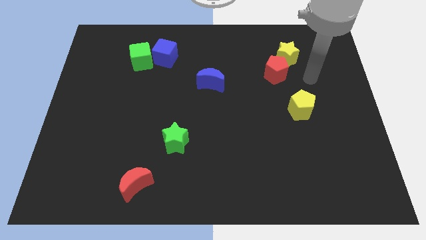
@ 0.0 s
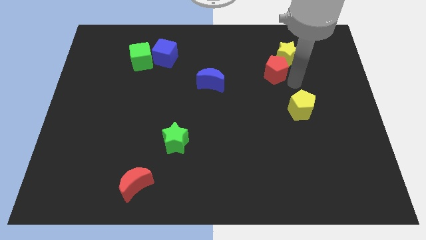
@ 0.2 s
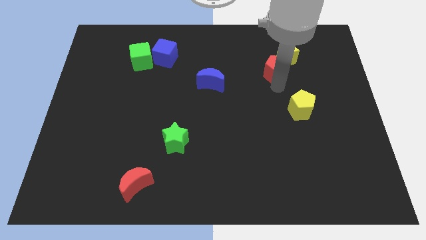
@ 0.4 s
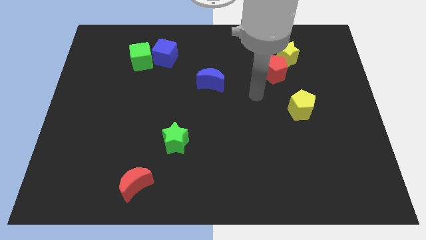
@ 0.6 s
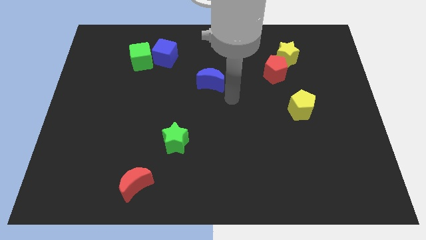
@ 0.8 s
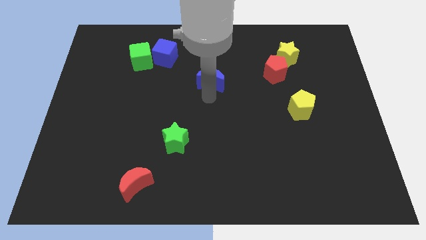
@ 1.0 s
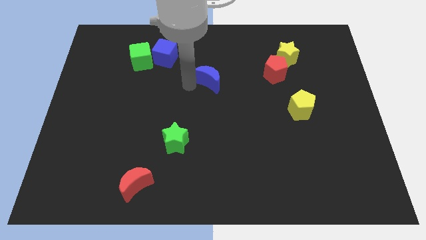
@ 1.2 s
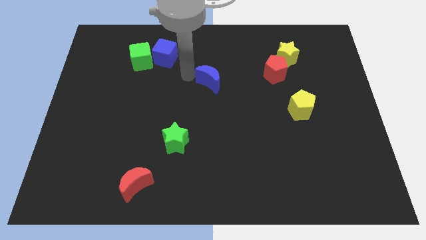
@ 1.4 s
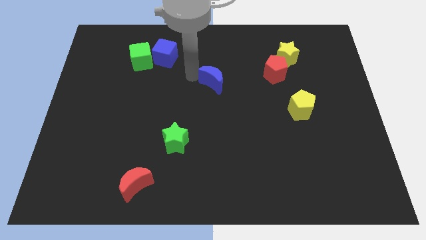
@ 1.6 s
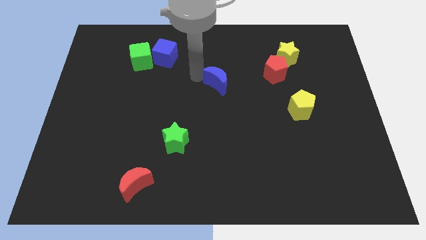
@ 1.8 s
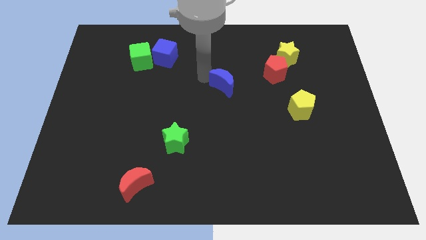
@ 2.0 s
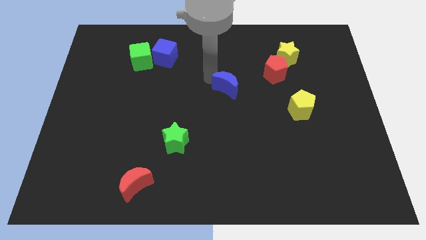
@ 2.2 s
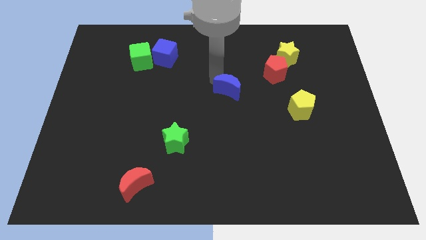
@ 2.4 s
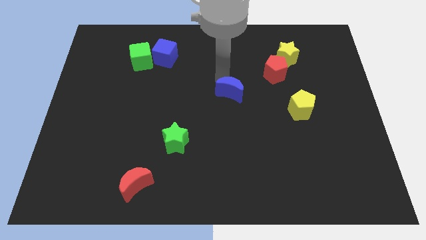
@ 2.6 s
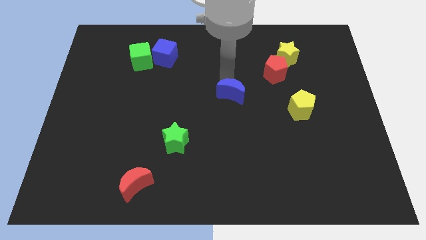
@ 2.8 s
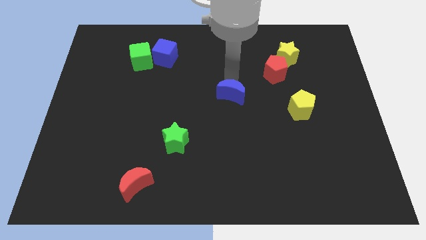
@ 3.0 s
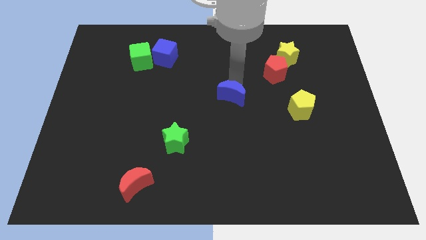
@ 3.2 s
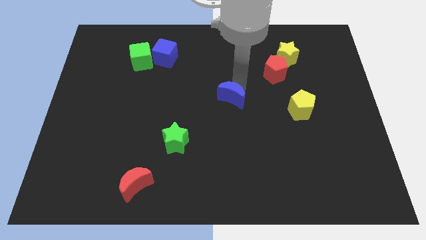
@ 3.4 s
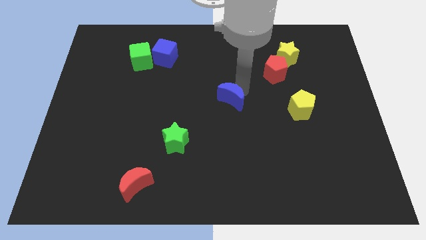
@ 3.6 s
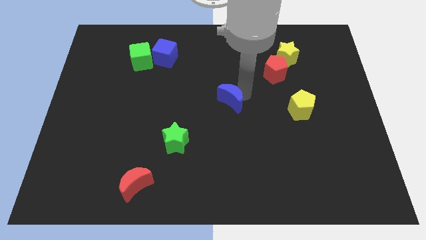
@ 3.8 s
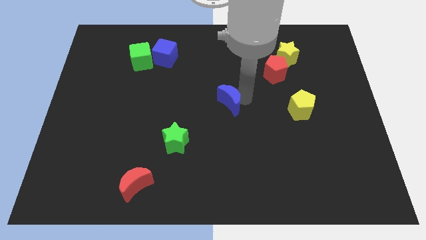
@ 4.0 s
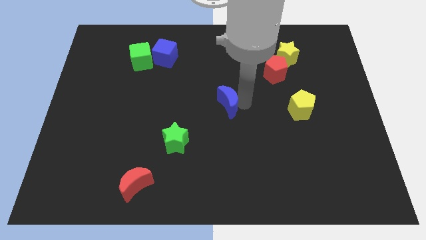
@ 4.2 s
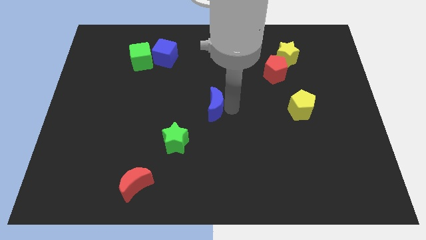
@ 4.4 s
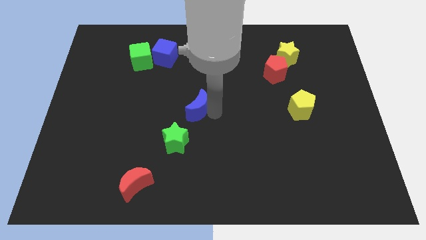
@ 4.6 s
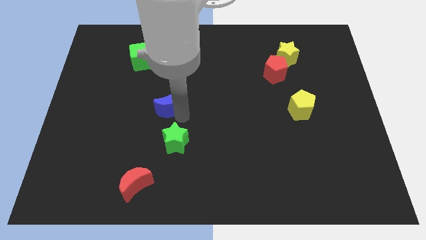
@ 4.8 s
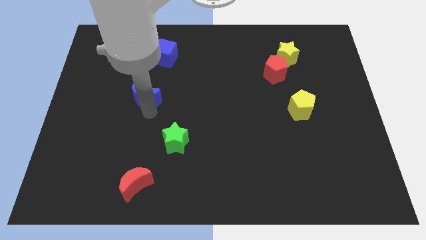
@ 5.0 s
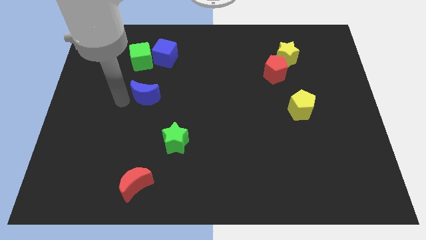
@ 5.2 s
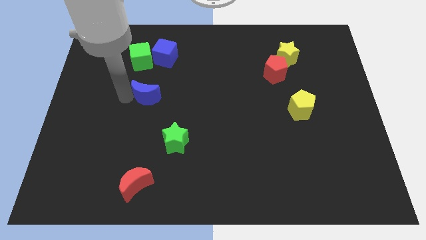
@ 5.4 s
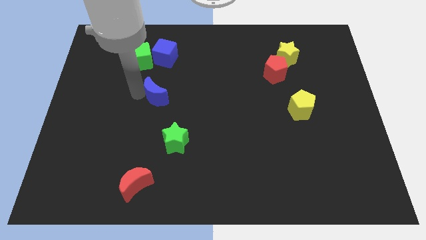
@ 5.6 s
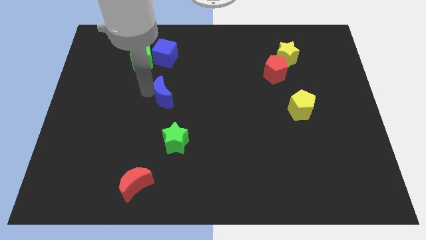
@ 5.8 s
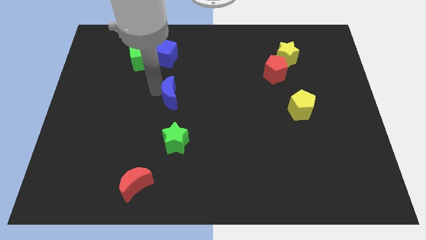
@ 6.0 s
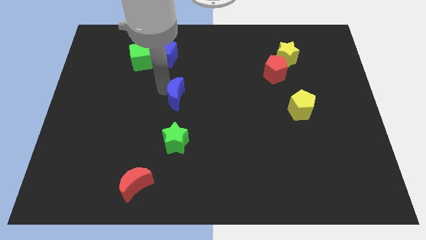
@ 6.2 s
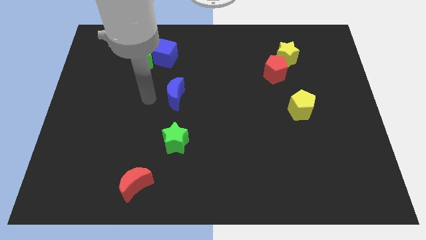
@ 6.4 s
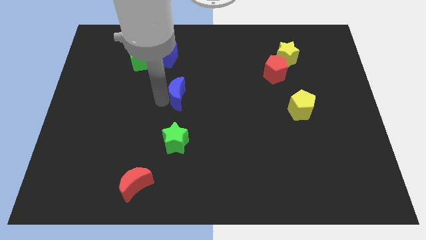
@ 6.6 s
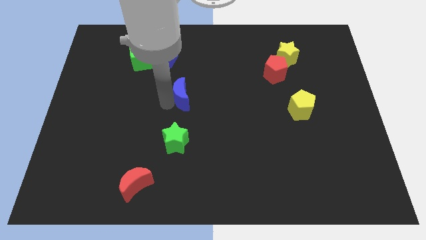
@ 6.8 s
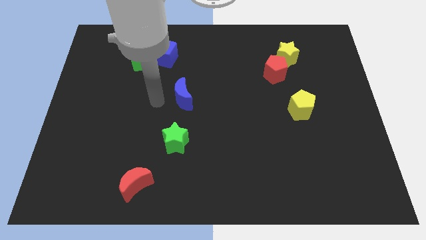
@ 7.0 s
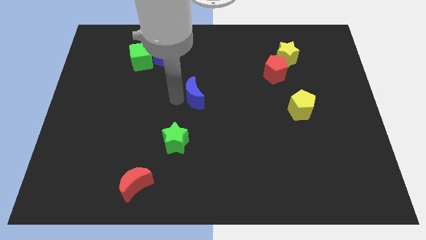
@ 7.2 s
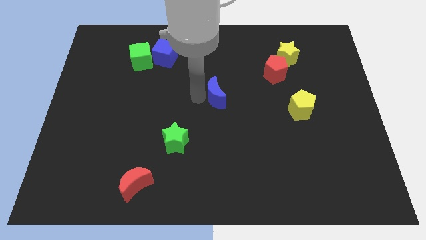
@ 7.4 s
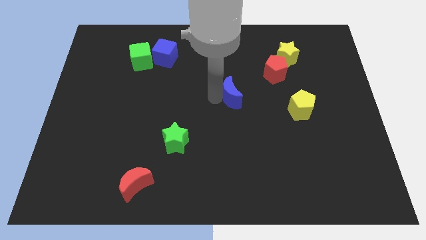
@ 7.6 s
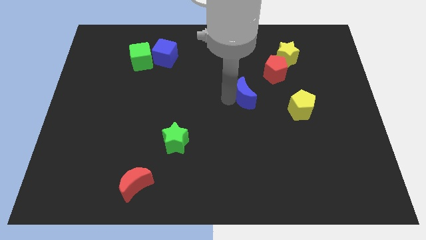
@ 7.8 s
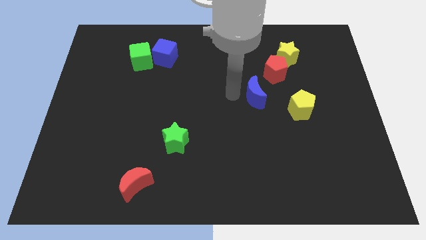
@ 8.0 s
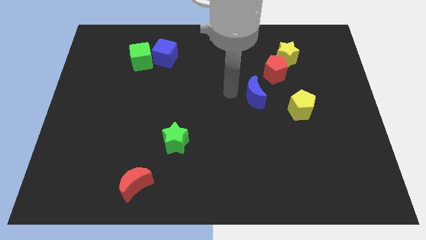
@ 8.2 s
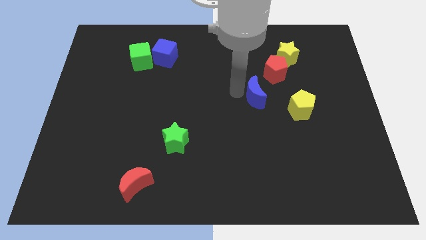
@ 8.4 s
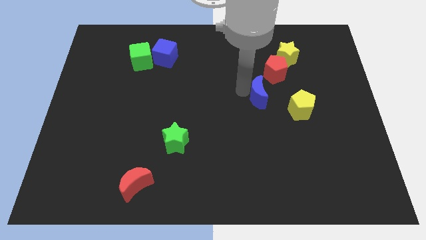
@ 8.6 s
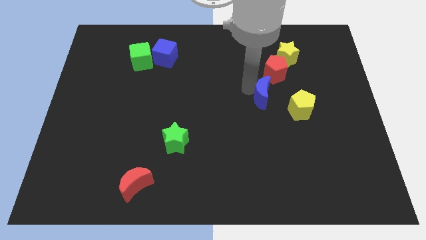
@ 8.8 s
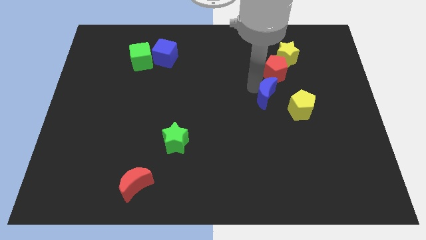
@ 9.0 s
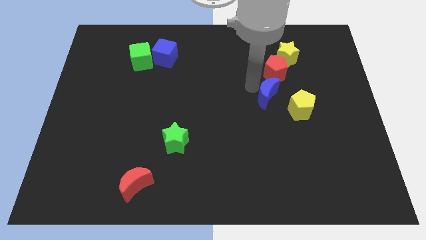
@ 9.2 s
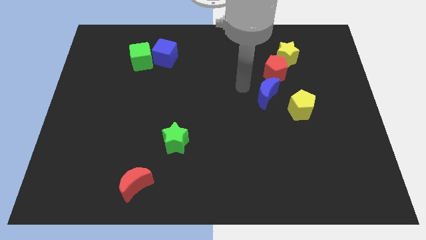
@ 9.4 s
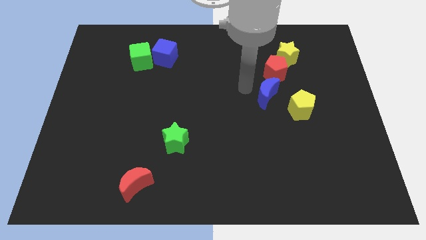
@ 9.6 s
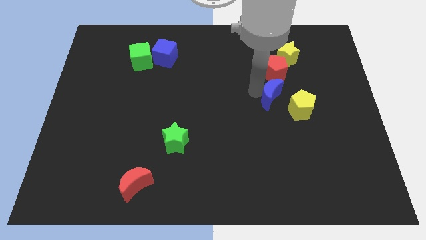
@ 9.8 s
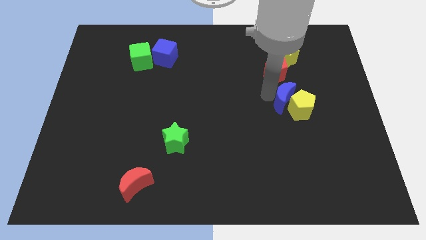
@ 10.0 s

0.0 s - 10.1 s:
slide the blue moon next to the yellow pentagon

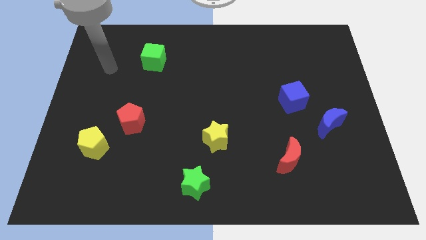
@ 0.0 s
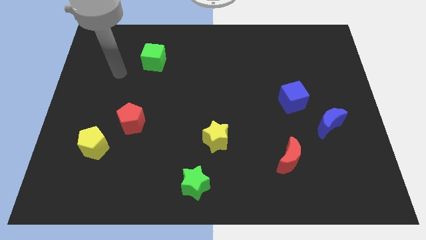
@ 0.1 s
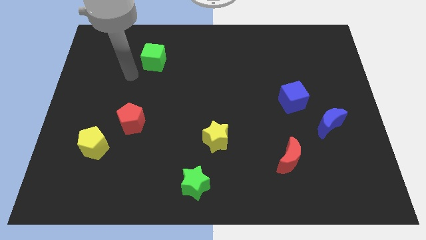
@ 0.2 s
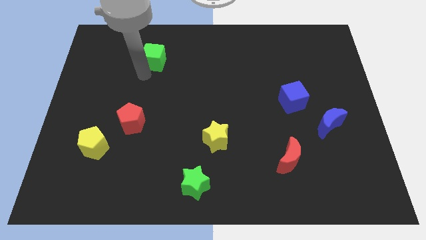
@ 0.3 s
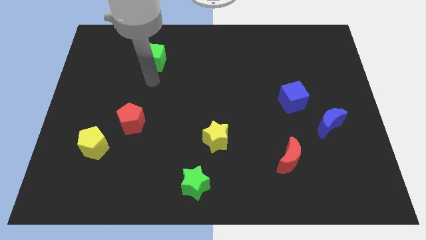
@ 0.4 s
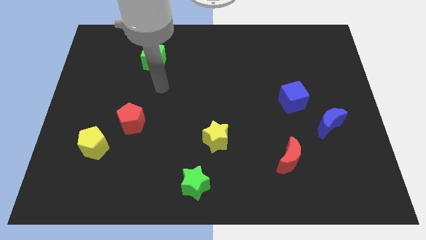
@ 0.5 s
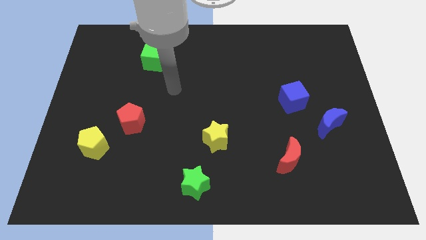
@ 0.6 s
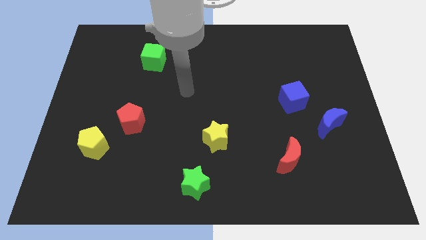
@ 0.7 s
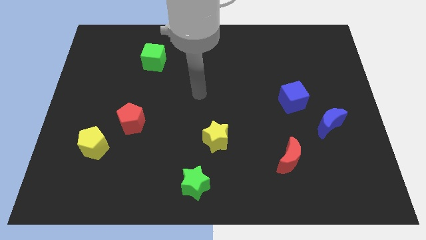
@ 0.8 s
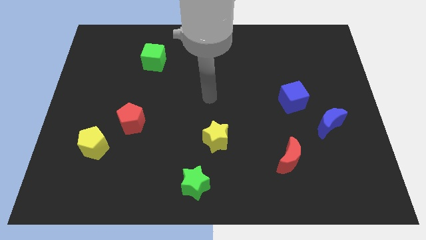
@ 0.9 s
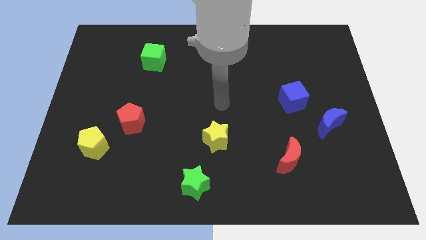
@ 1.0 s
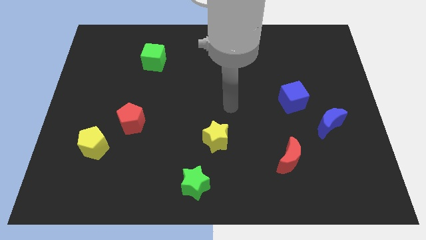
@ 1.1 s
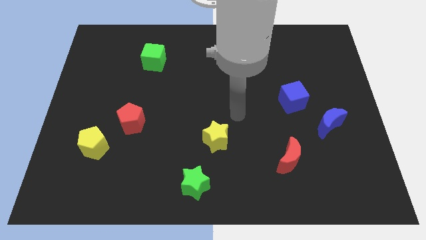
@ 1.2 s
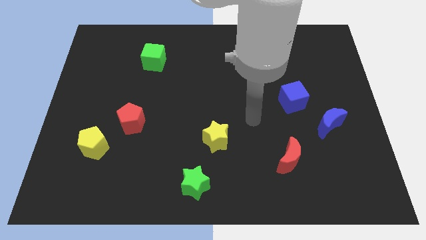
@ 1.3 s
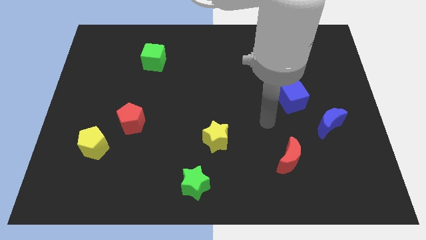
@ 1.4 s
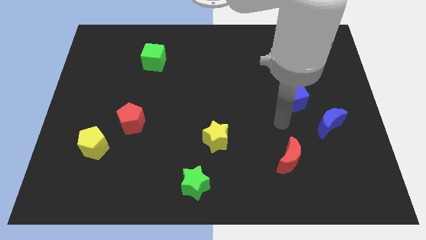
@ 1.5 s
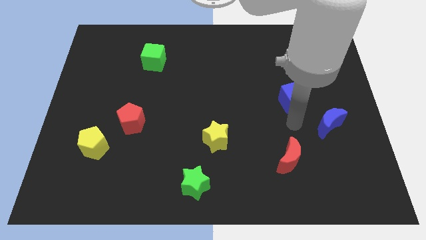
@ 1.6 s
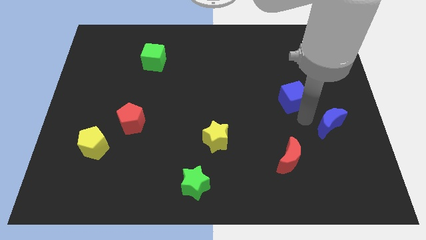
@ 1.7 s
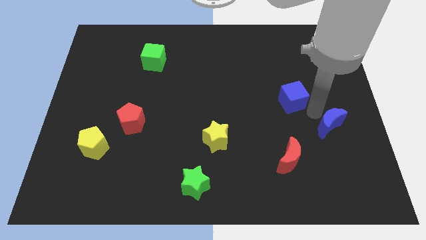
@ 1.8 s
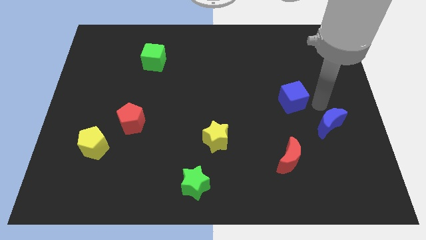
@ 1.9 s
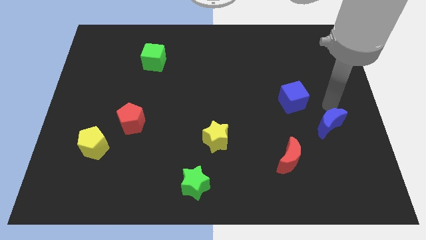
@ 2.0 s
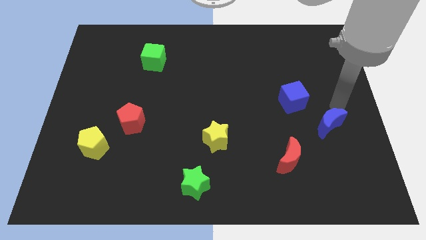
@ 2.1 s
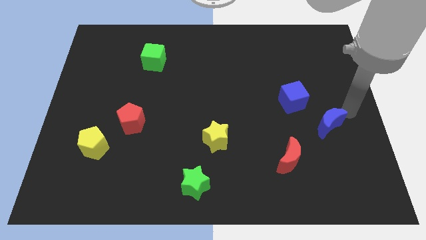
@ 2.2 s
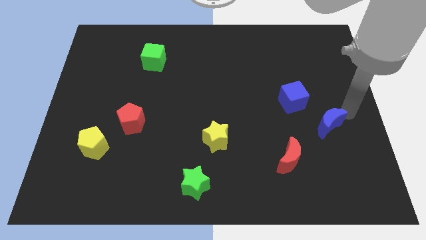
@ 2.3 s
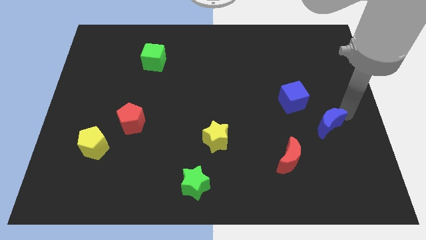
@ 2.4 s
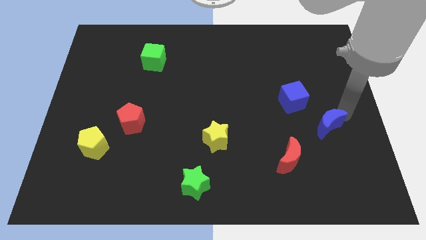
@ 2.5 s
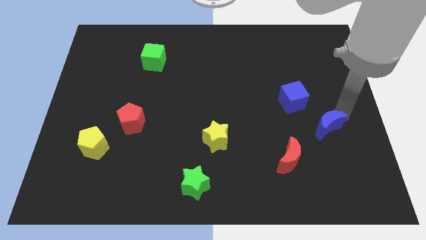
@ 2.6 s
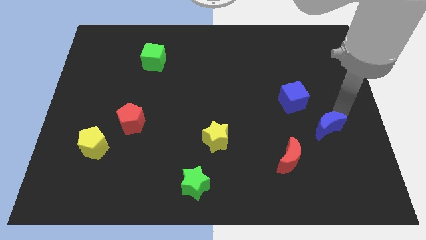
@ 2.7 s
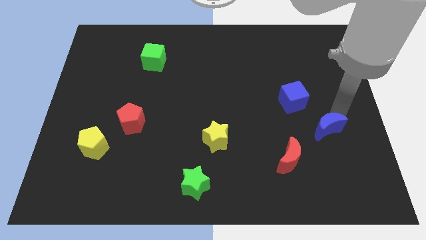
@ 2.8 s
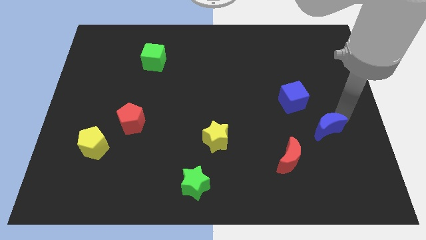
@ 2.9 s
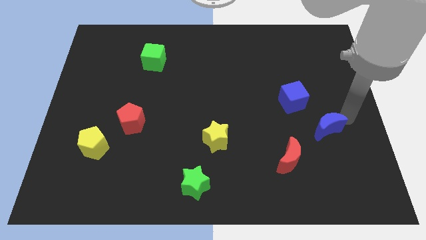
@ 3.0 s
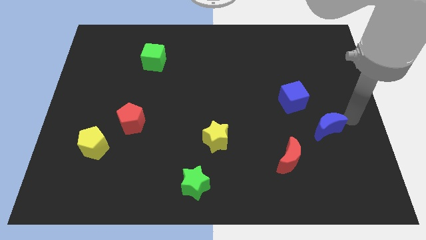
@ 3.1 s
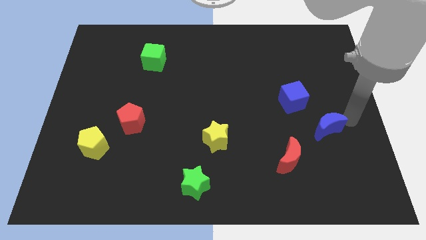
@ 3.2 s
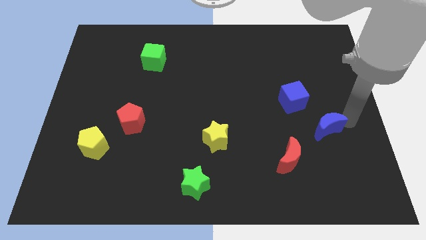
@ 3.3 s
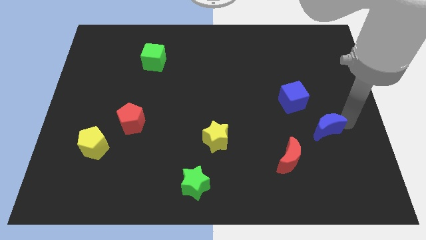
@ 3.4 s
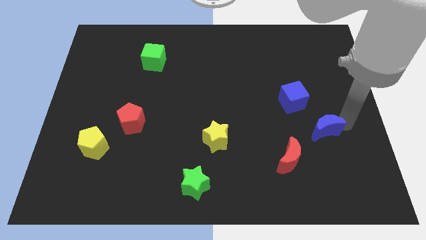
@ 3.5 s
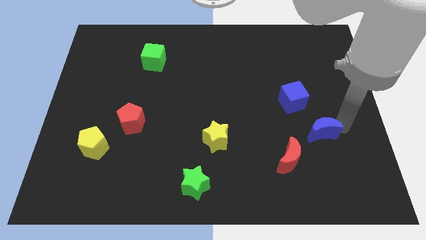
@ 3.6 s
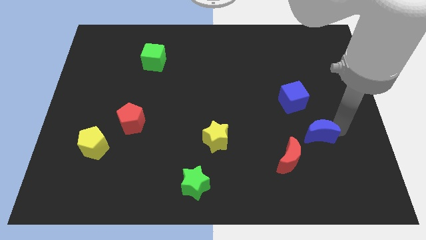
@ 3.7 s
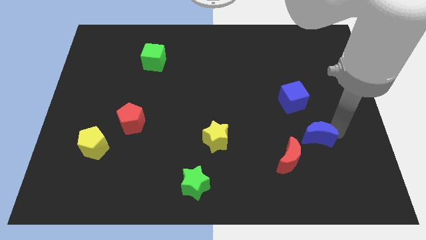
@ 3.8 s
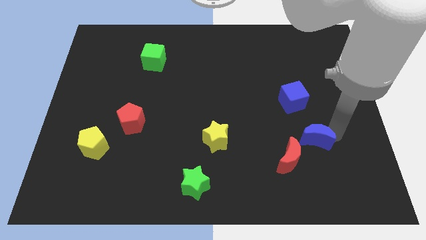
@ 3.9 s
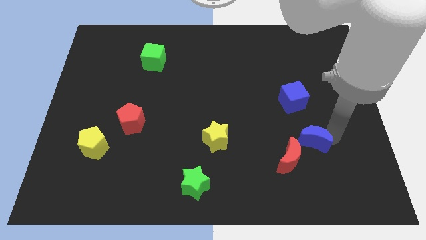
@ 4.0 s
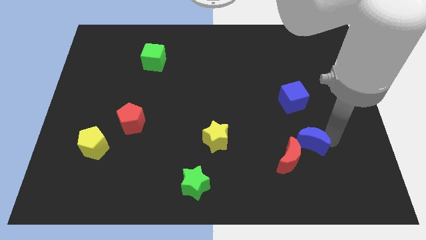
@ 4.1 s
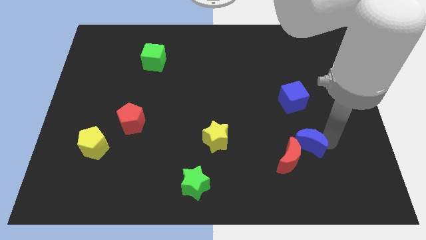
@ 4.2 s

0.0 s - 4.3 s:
push the blue moon close to the red moon
